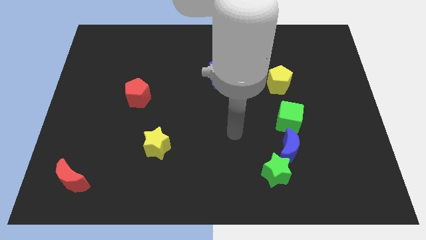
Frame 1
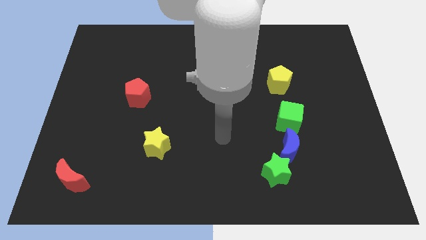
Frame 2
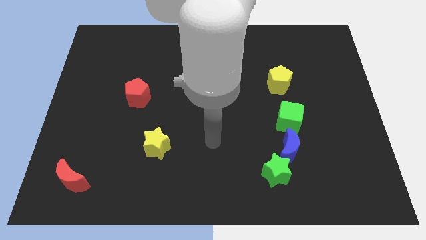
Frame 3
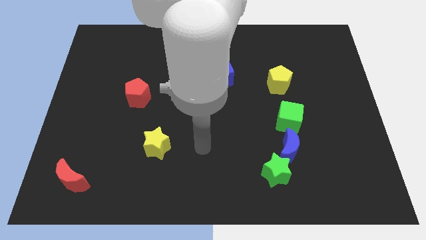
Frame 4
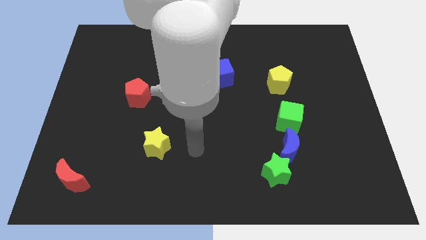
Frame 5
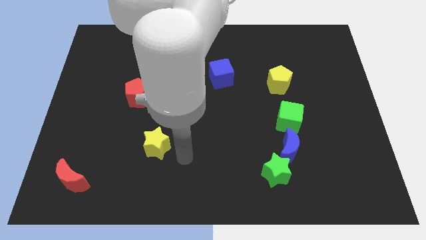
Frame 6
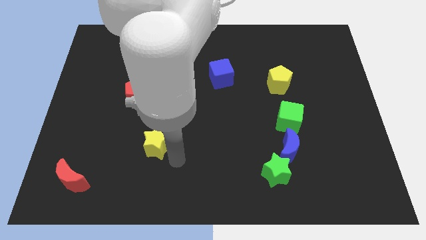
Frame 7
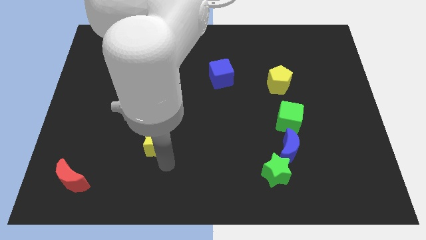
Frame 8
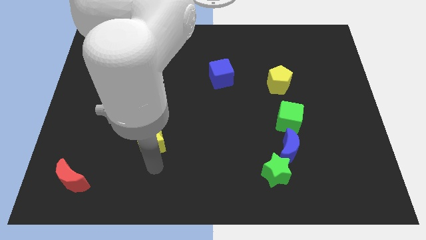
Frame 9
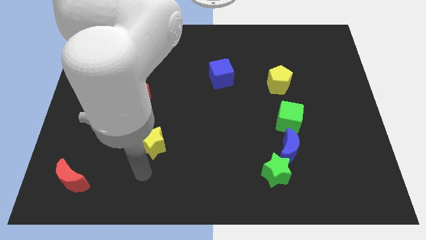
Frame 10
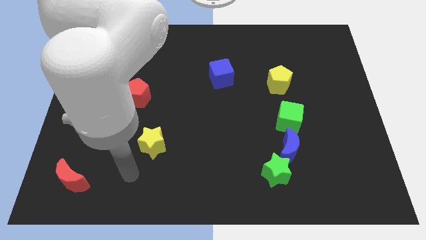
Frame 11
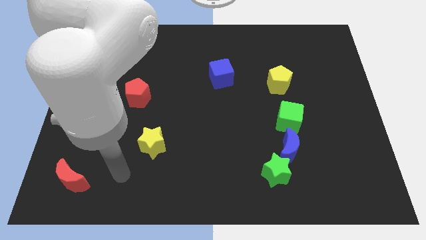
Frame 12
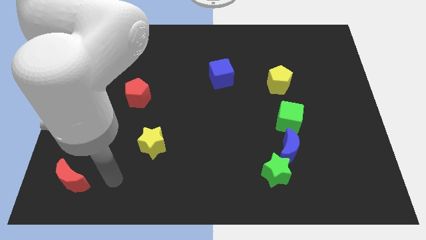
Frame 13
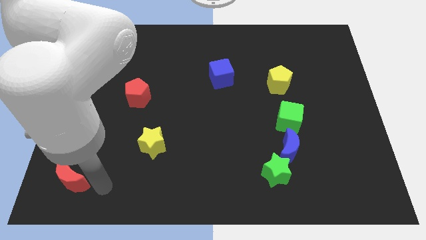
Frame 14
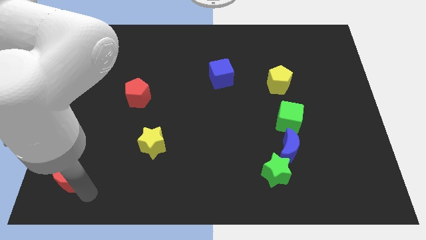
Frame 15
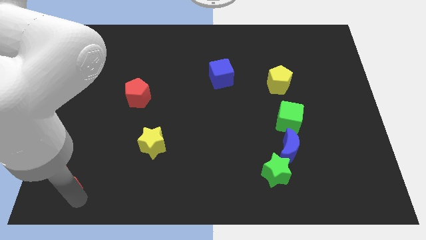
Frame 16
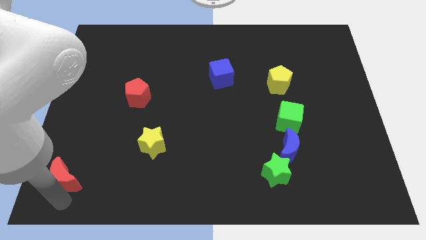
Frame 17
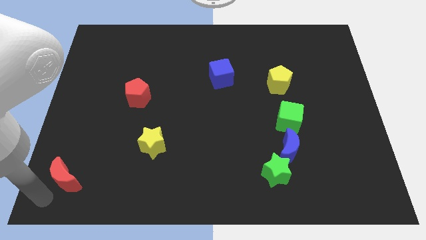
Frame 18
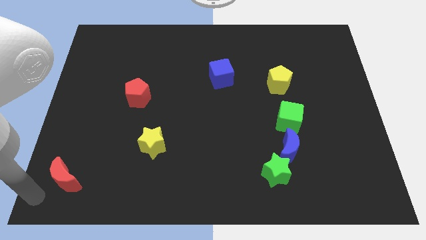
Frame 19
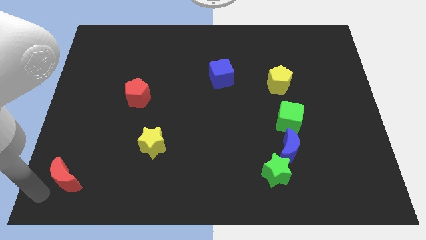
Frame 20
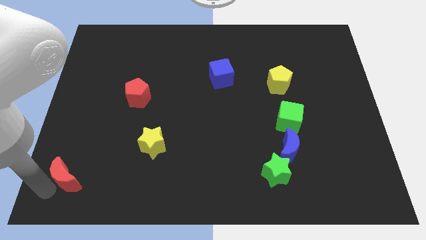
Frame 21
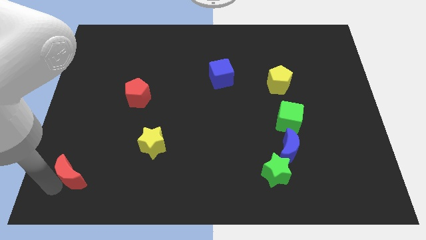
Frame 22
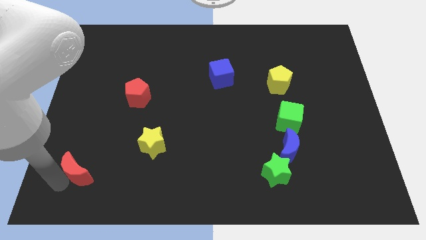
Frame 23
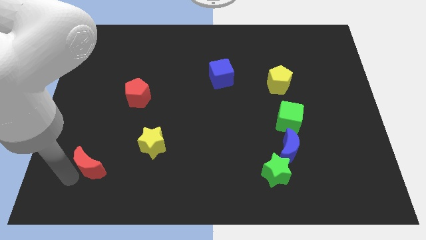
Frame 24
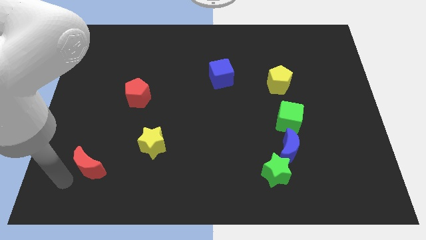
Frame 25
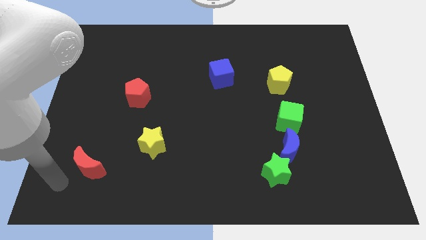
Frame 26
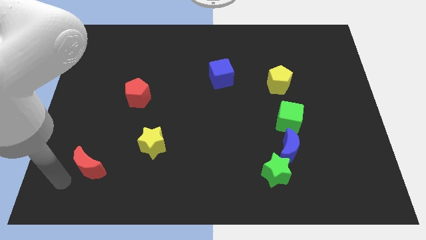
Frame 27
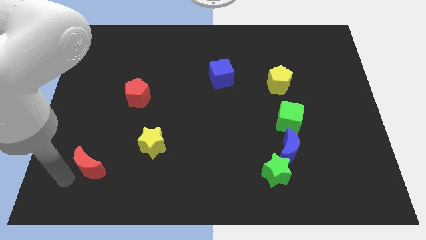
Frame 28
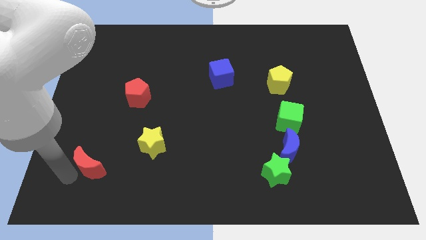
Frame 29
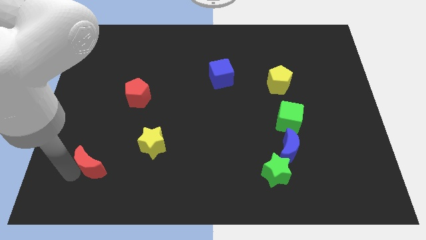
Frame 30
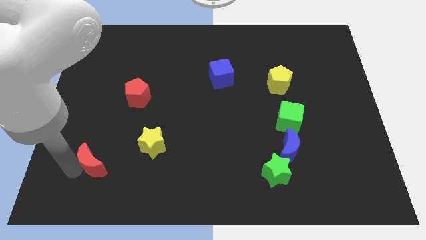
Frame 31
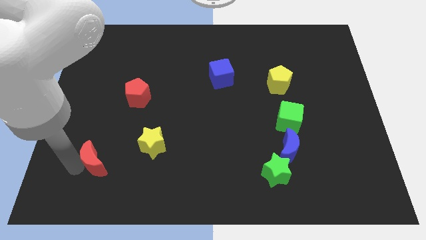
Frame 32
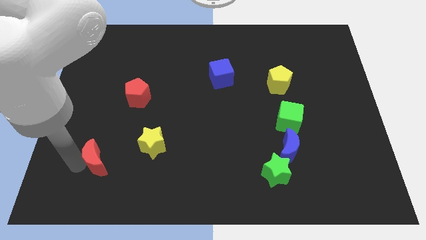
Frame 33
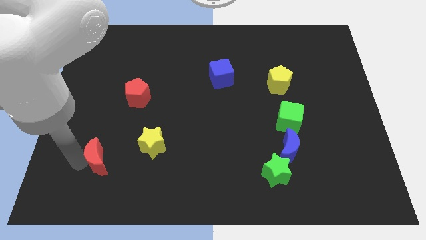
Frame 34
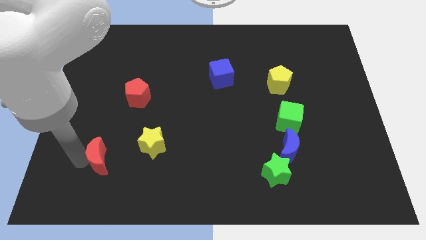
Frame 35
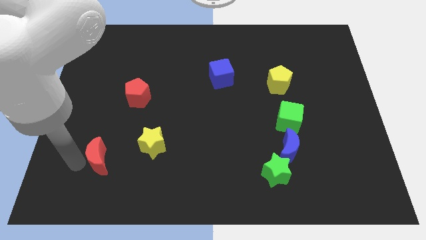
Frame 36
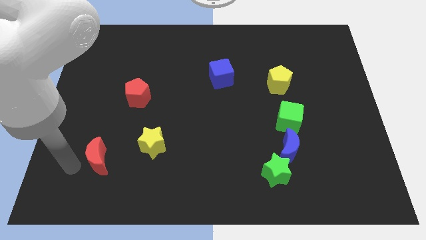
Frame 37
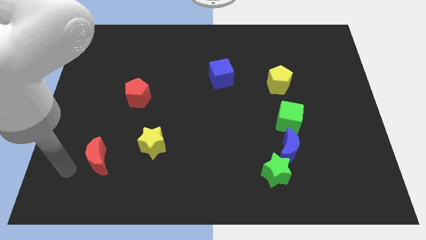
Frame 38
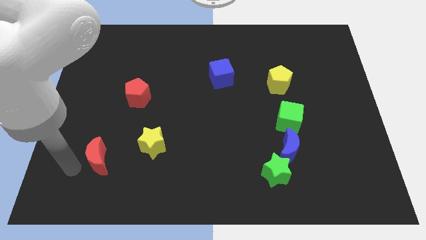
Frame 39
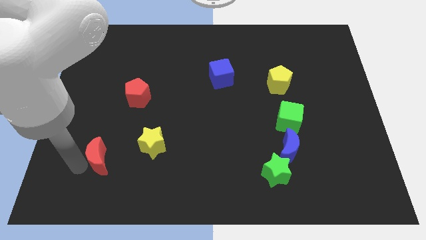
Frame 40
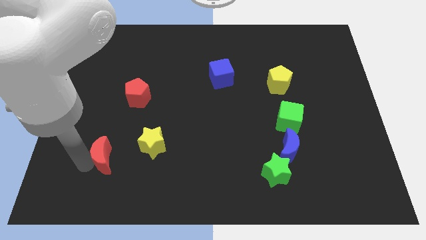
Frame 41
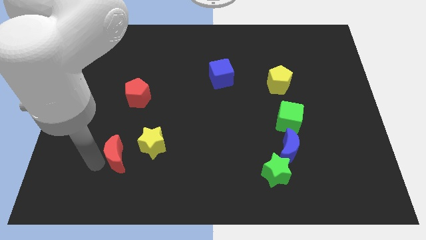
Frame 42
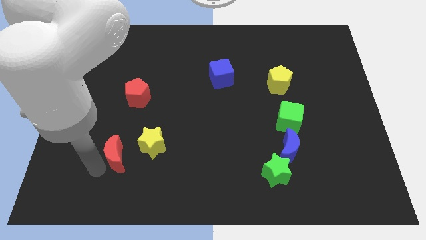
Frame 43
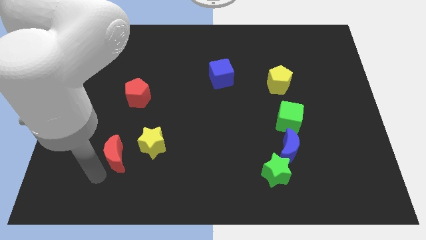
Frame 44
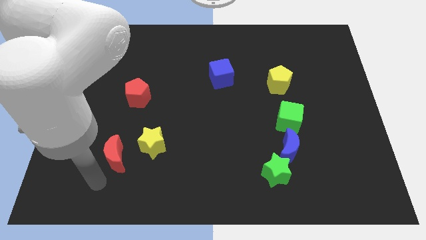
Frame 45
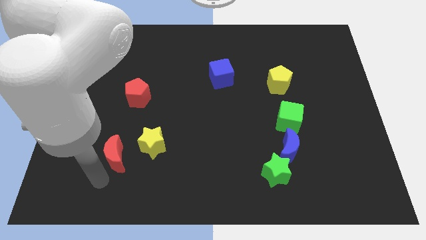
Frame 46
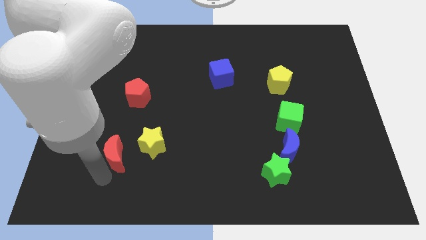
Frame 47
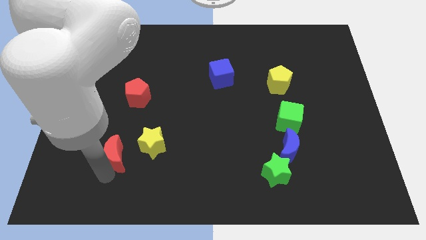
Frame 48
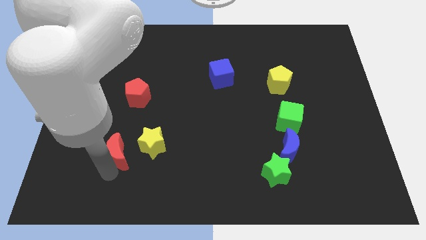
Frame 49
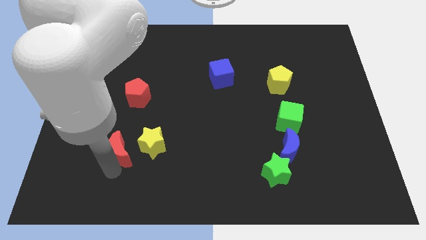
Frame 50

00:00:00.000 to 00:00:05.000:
slide the red moon to the bottom of the red pentagon

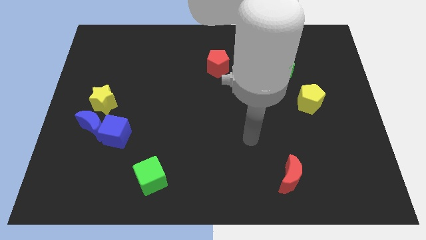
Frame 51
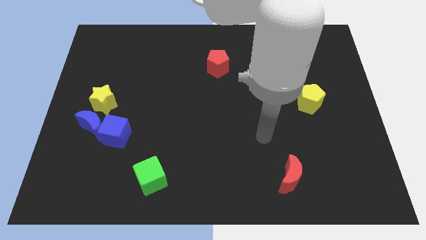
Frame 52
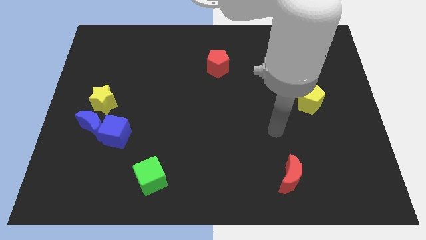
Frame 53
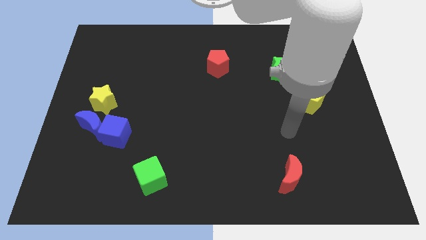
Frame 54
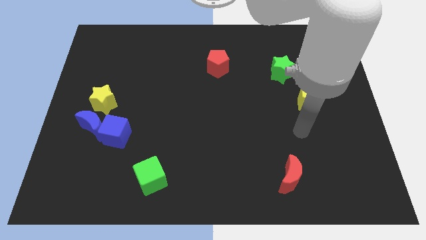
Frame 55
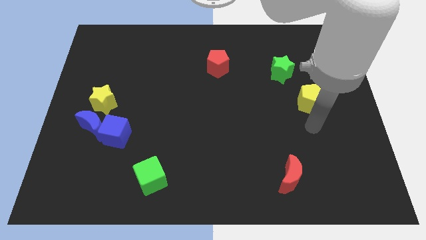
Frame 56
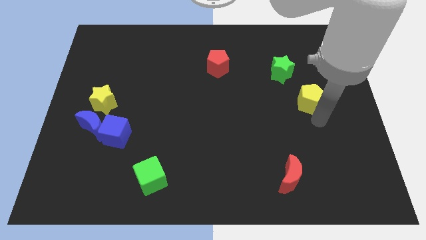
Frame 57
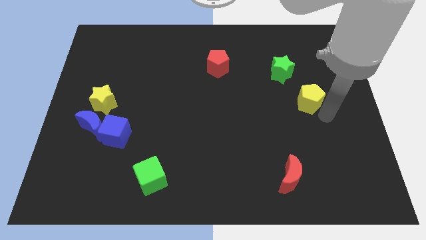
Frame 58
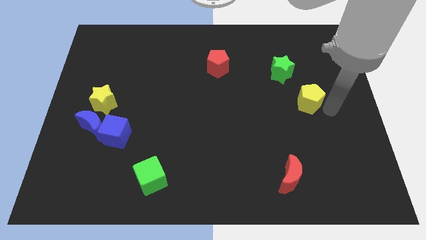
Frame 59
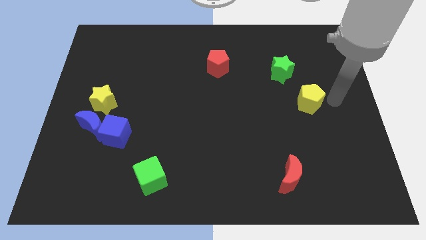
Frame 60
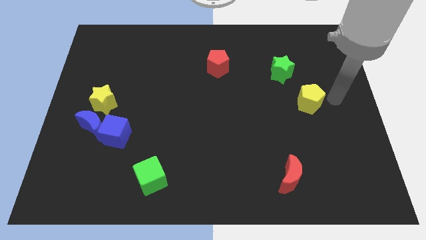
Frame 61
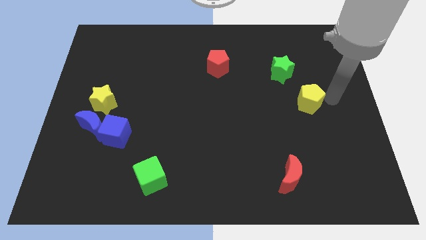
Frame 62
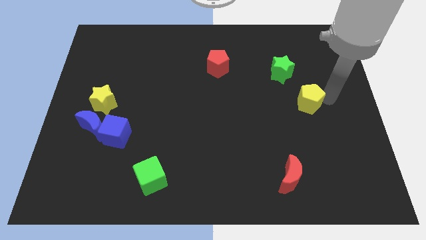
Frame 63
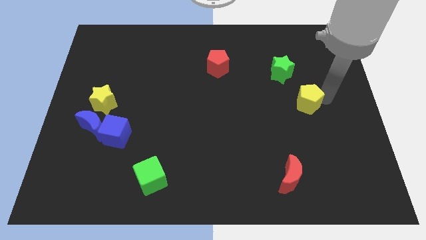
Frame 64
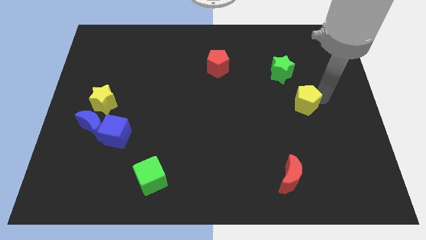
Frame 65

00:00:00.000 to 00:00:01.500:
put the yellow pentagon to the bottom side of the green star
